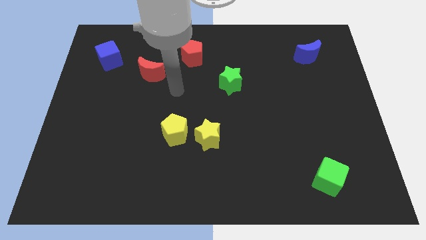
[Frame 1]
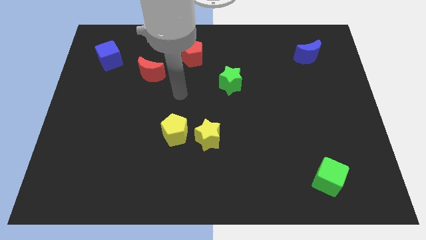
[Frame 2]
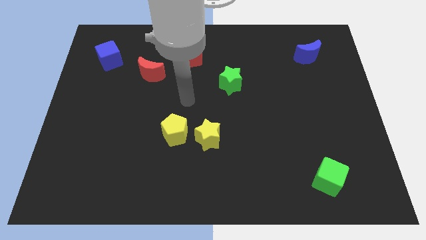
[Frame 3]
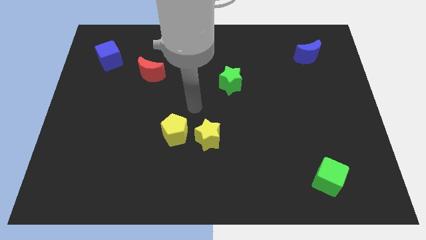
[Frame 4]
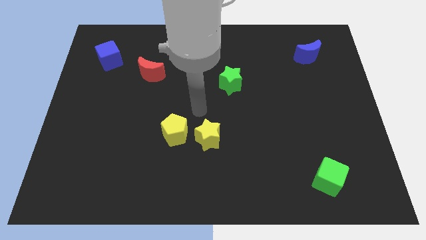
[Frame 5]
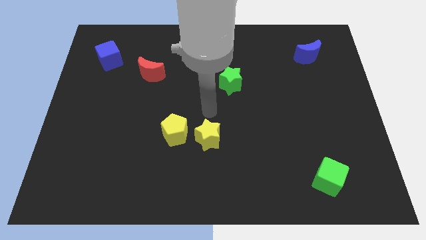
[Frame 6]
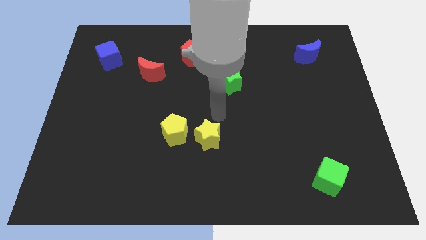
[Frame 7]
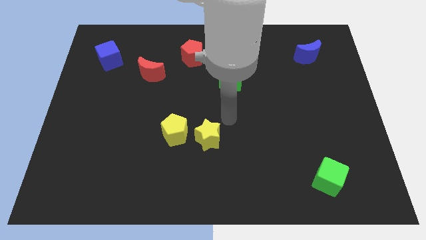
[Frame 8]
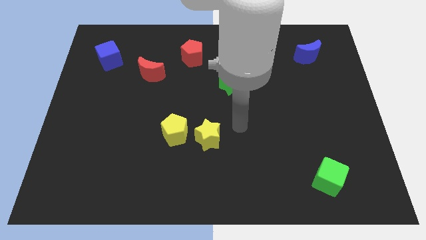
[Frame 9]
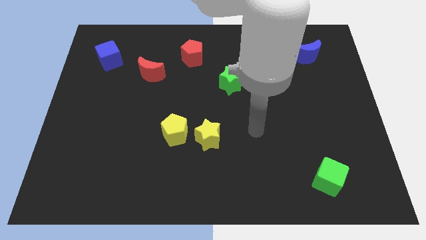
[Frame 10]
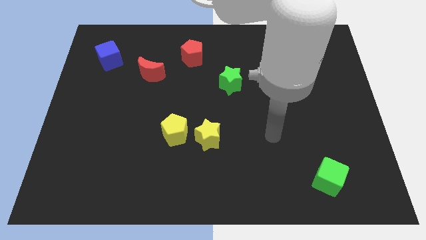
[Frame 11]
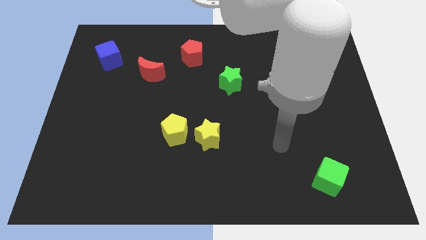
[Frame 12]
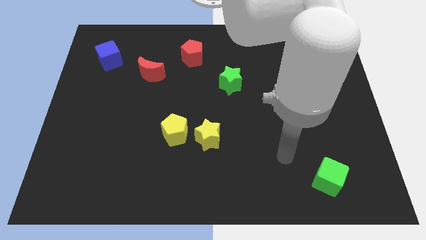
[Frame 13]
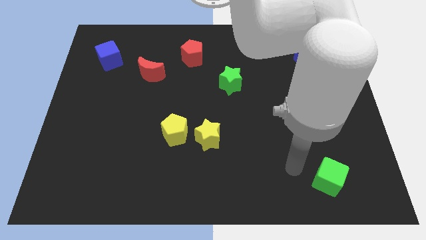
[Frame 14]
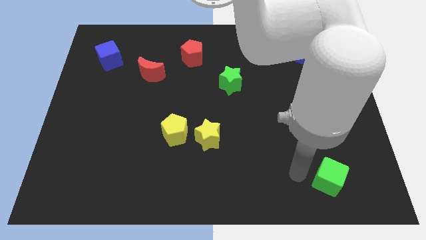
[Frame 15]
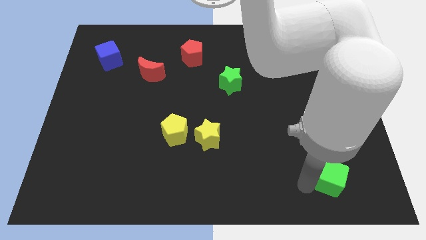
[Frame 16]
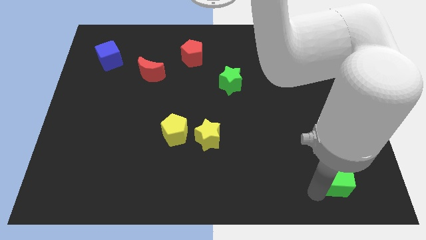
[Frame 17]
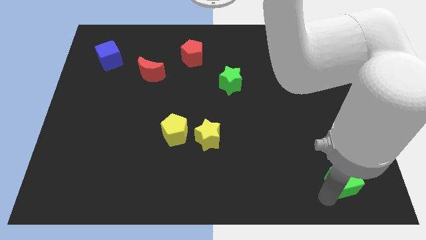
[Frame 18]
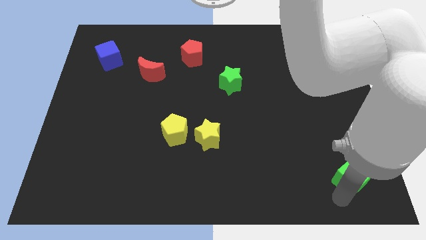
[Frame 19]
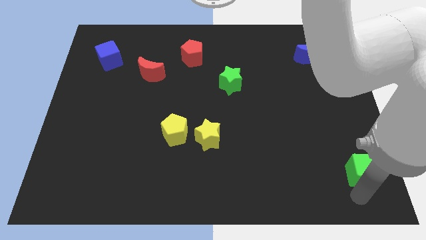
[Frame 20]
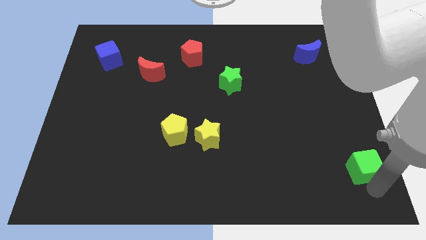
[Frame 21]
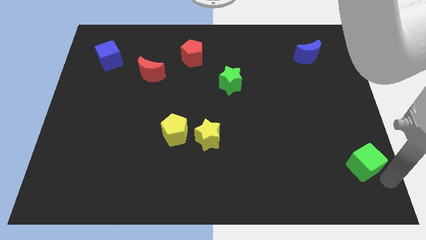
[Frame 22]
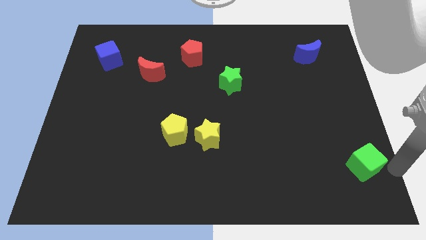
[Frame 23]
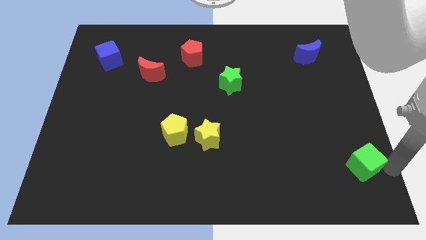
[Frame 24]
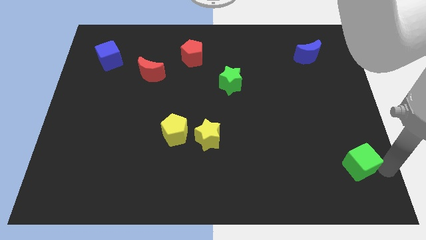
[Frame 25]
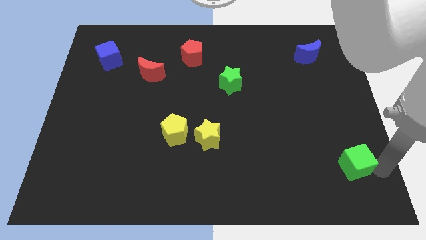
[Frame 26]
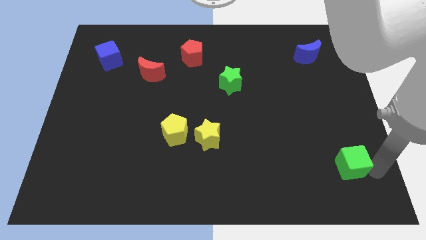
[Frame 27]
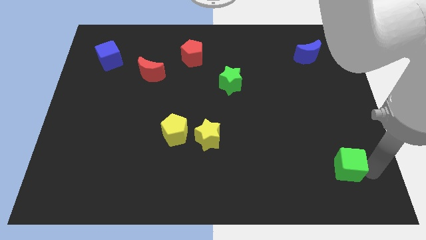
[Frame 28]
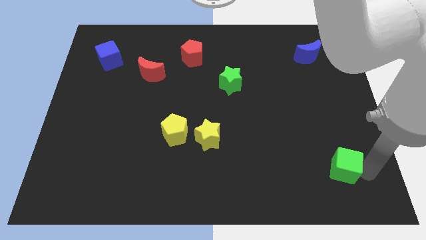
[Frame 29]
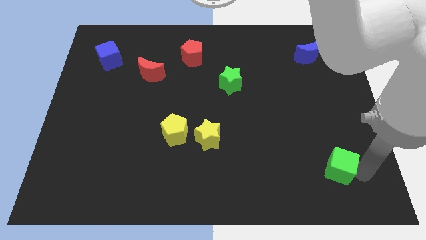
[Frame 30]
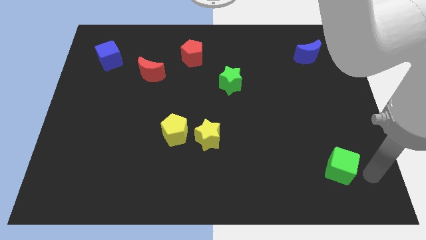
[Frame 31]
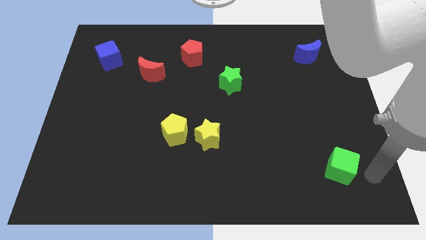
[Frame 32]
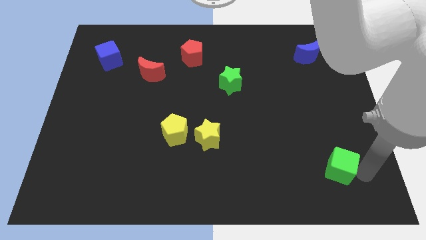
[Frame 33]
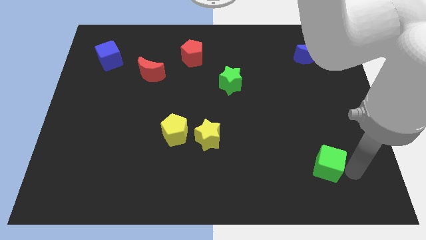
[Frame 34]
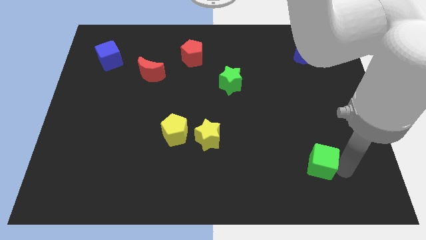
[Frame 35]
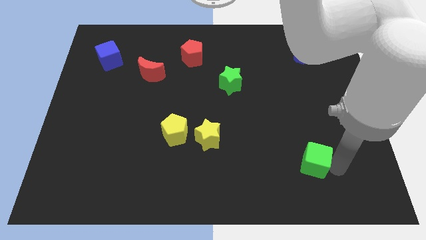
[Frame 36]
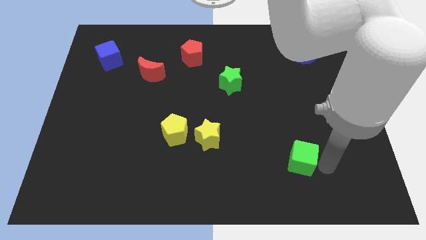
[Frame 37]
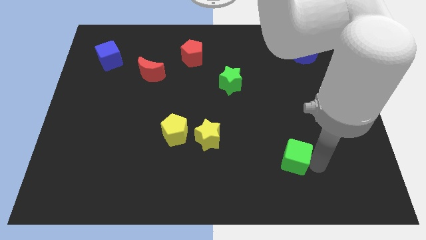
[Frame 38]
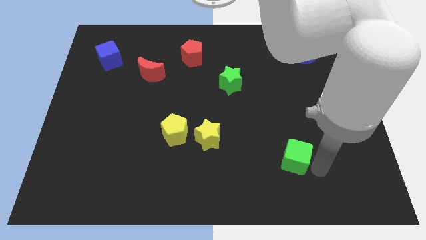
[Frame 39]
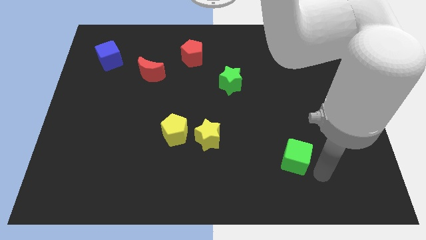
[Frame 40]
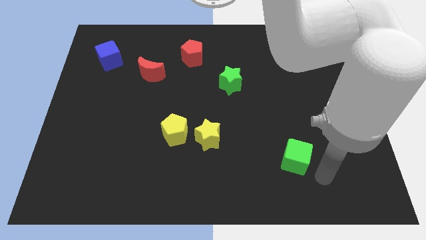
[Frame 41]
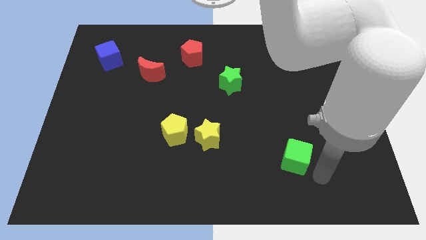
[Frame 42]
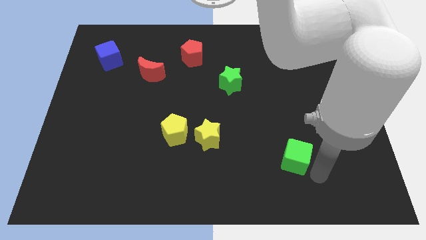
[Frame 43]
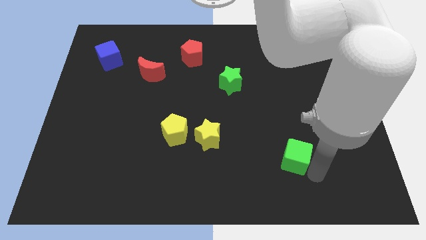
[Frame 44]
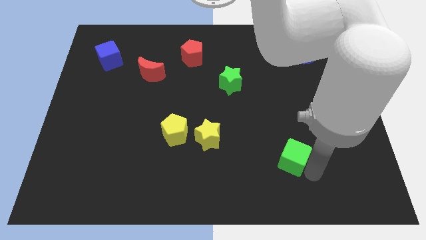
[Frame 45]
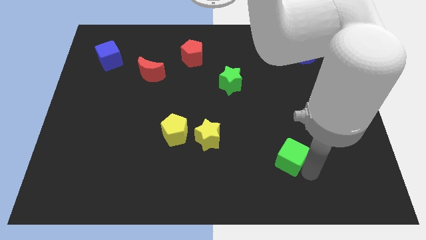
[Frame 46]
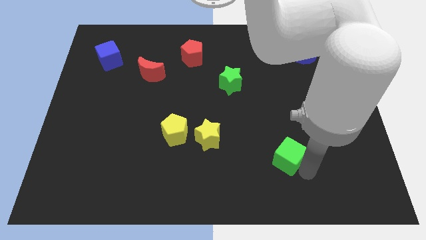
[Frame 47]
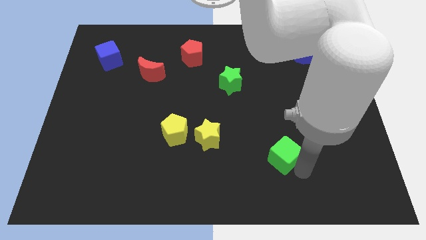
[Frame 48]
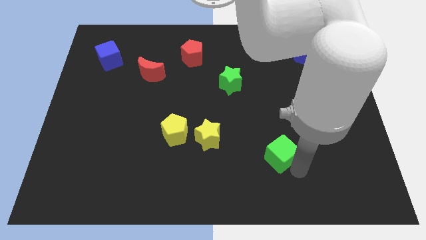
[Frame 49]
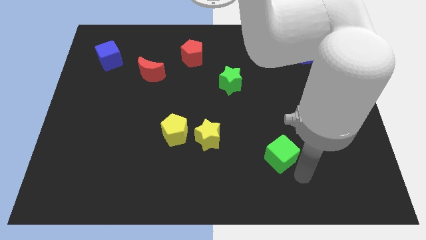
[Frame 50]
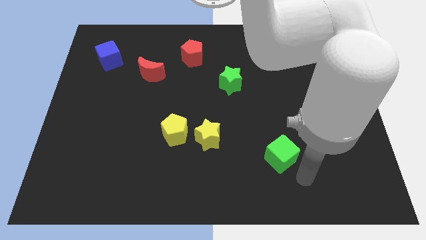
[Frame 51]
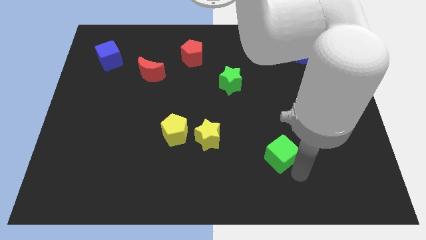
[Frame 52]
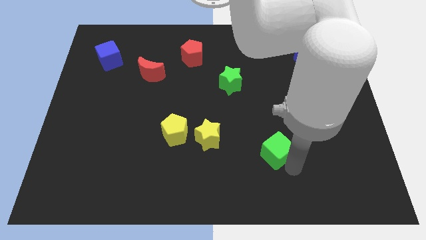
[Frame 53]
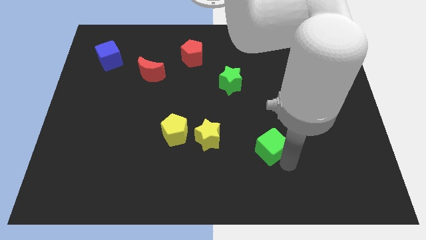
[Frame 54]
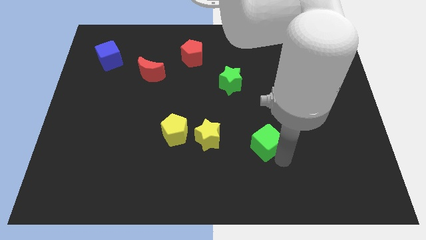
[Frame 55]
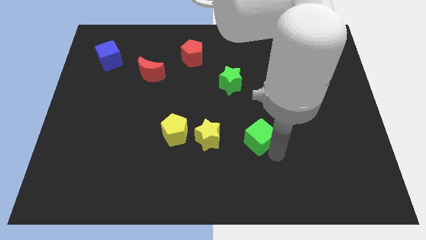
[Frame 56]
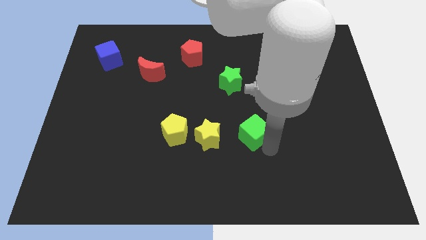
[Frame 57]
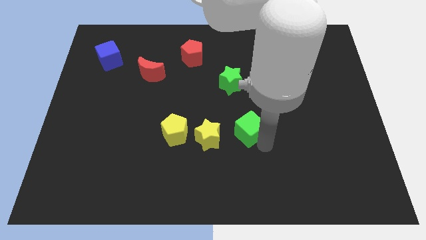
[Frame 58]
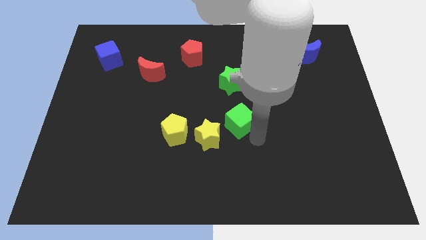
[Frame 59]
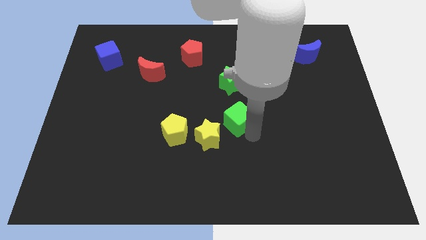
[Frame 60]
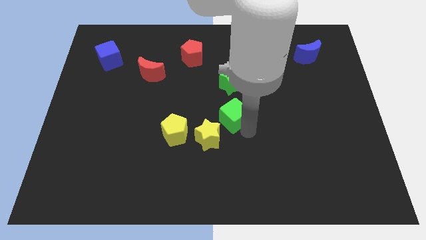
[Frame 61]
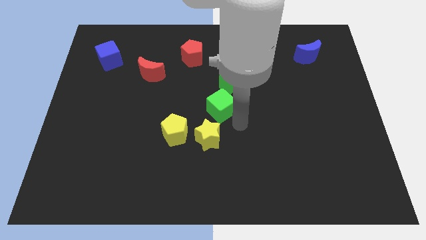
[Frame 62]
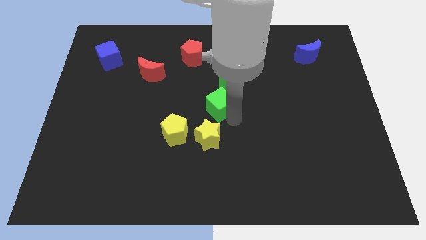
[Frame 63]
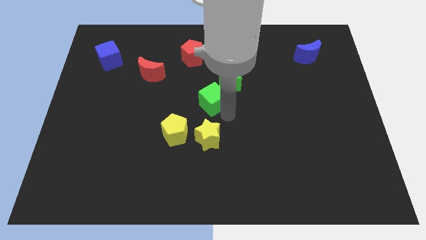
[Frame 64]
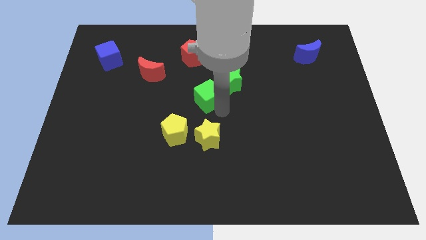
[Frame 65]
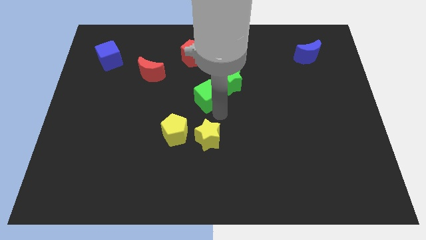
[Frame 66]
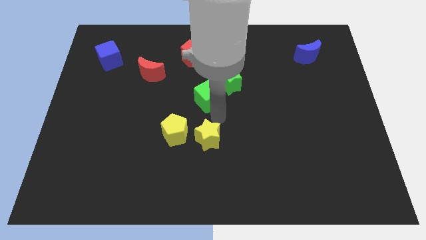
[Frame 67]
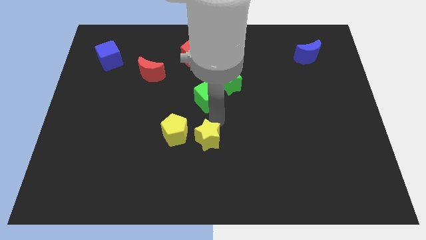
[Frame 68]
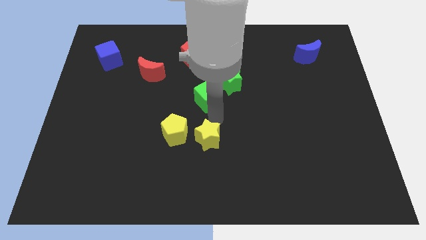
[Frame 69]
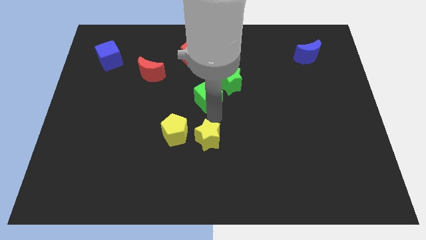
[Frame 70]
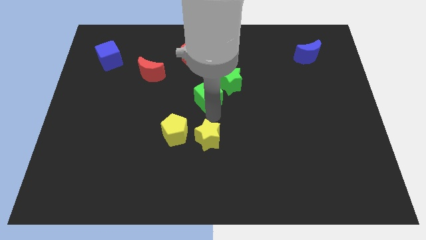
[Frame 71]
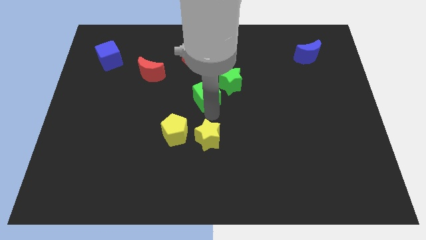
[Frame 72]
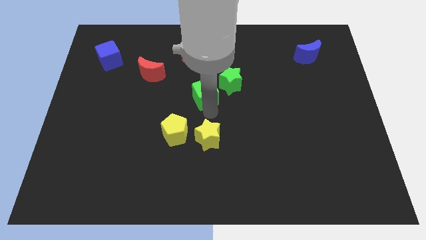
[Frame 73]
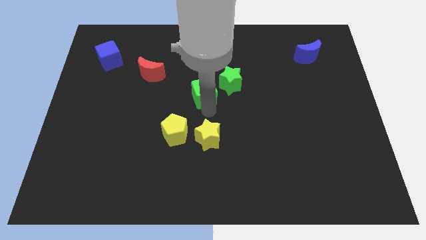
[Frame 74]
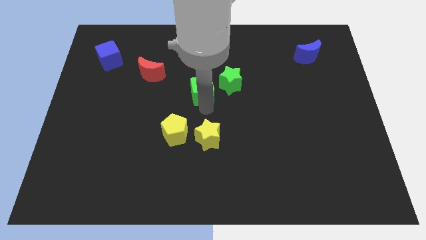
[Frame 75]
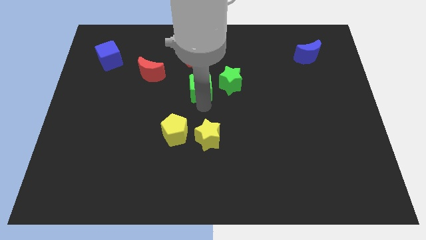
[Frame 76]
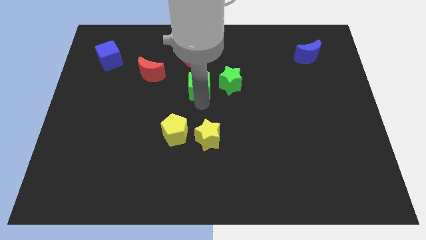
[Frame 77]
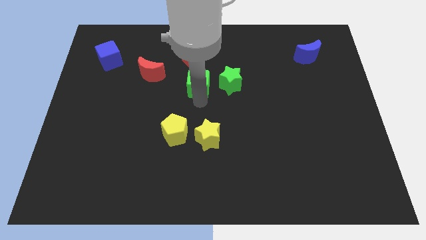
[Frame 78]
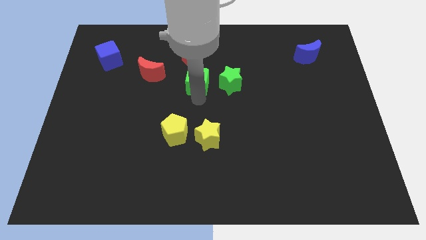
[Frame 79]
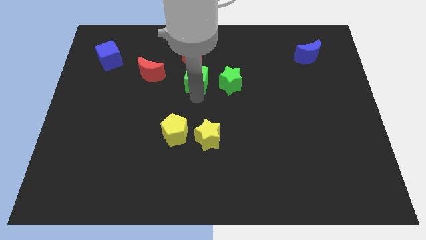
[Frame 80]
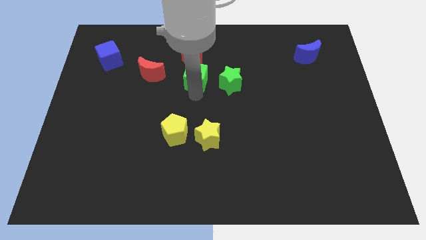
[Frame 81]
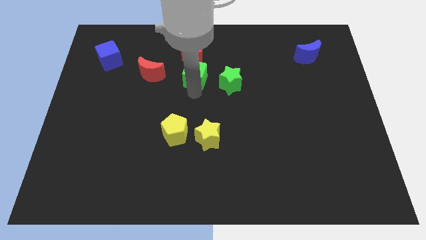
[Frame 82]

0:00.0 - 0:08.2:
move the green cube diagonally down and to the right of the red pentagon
